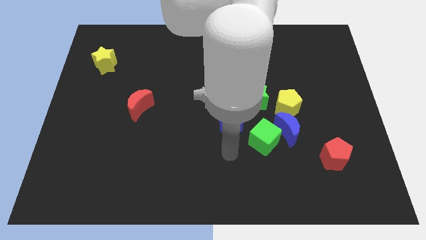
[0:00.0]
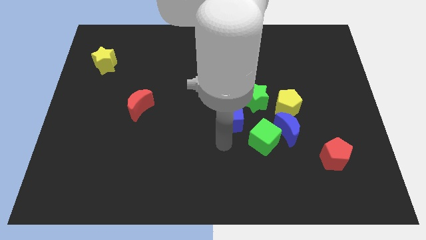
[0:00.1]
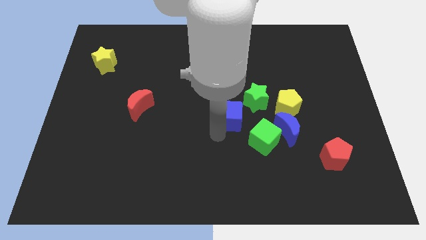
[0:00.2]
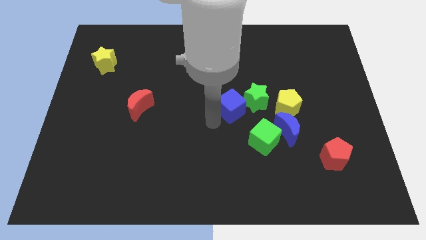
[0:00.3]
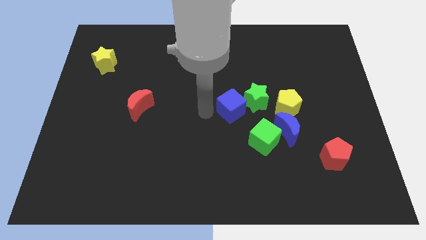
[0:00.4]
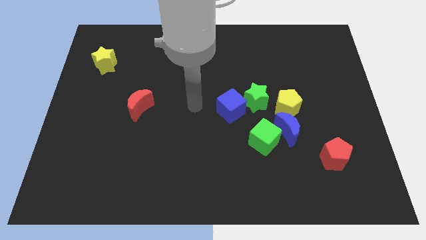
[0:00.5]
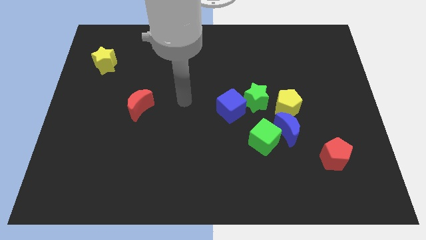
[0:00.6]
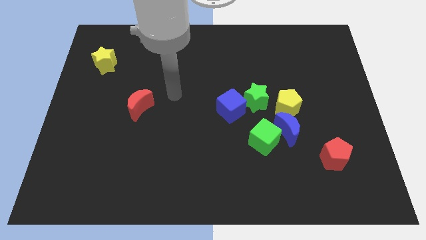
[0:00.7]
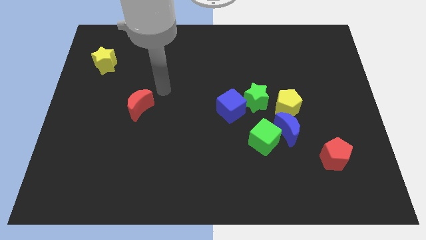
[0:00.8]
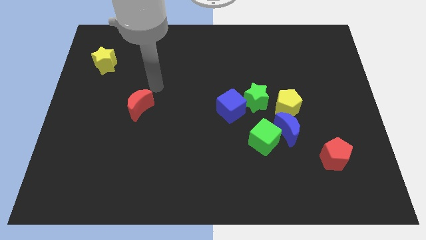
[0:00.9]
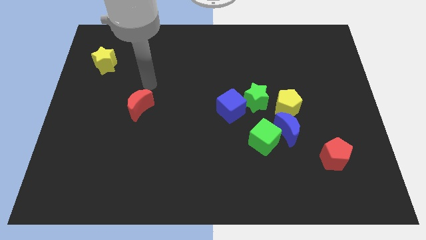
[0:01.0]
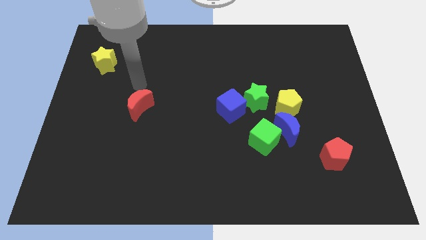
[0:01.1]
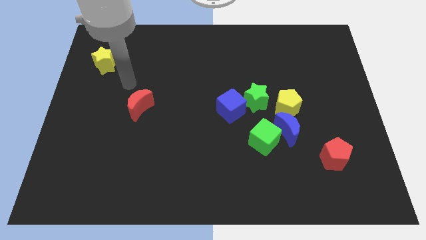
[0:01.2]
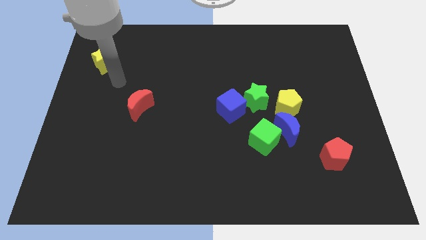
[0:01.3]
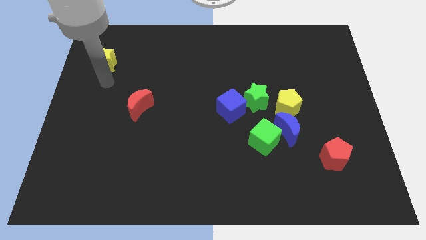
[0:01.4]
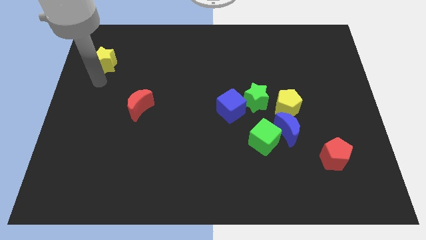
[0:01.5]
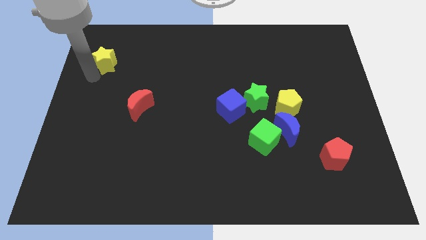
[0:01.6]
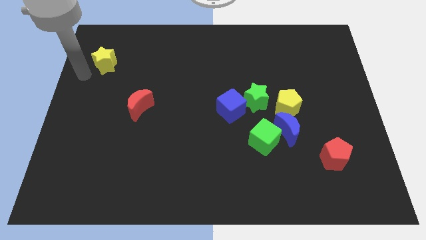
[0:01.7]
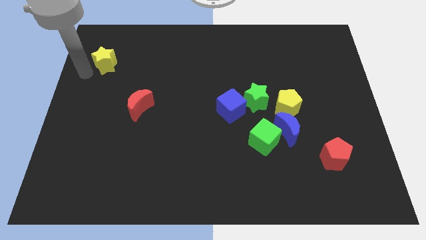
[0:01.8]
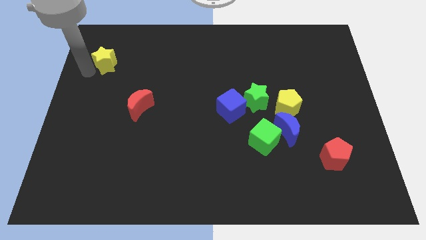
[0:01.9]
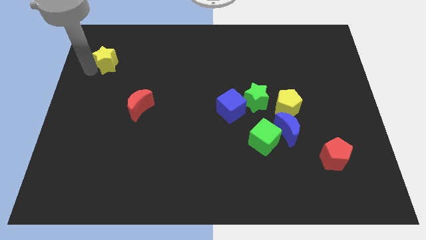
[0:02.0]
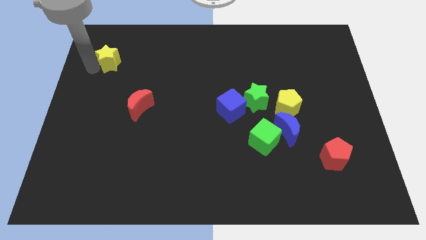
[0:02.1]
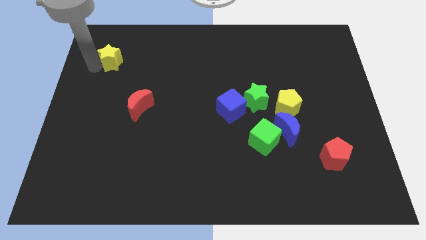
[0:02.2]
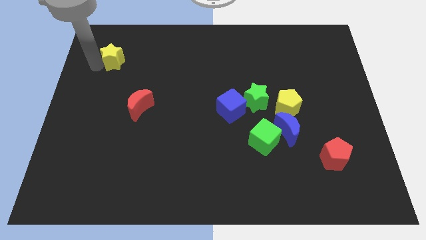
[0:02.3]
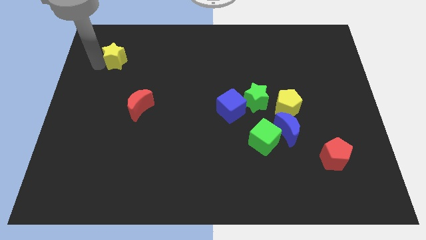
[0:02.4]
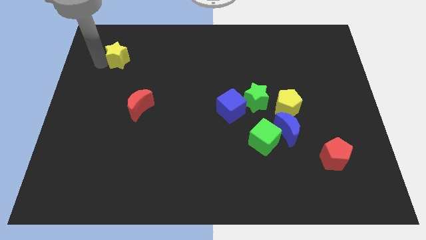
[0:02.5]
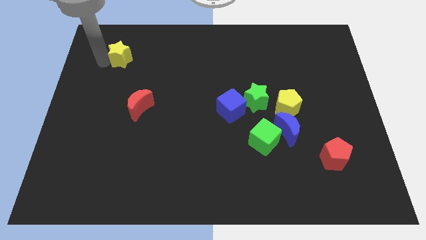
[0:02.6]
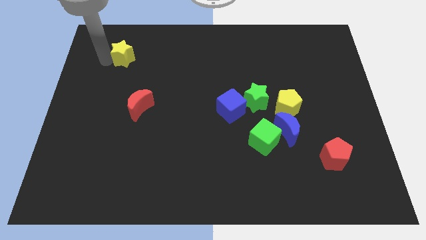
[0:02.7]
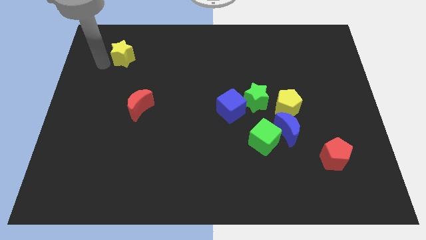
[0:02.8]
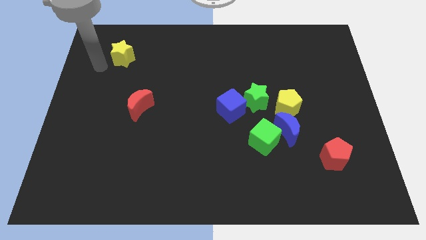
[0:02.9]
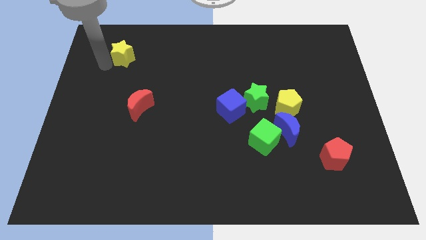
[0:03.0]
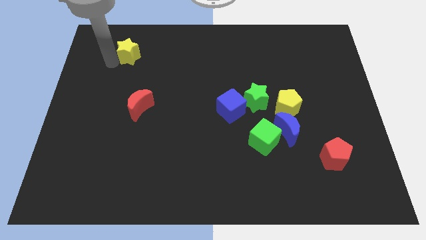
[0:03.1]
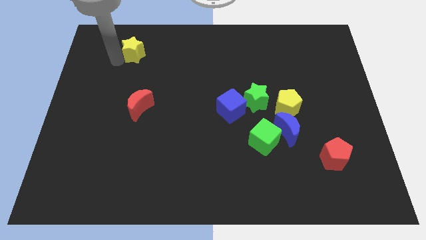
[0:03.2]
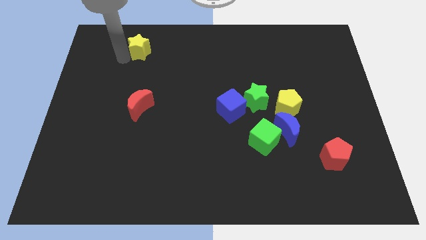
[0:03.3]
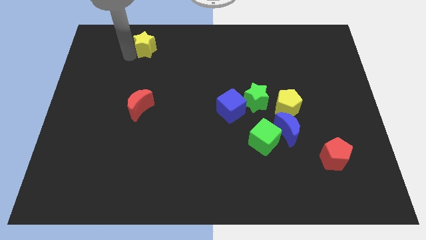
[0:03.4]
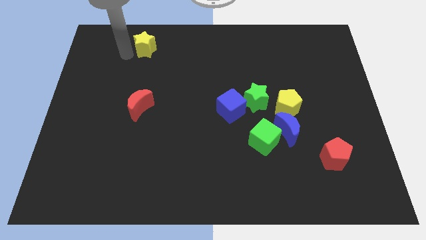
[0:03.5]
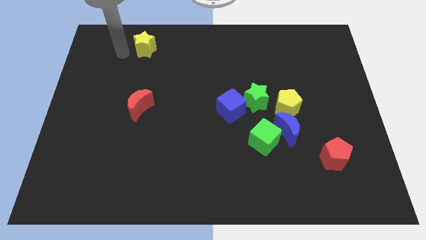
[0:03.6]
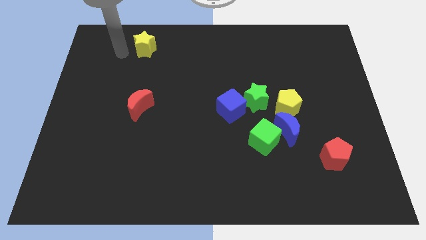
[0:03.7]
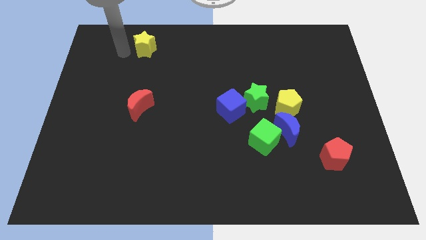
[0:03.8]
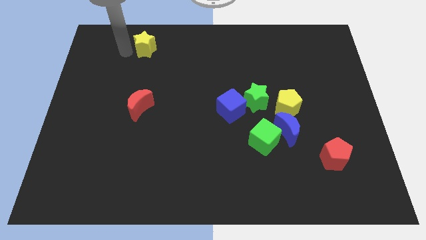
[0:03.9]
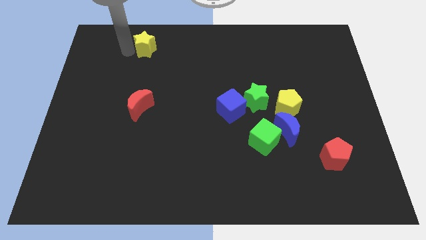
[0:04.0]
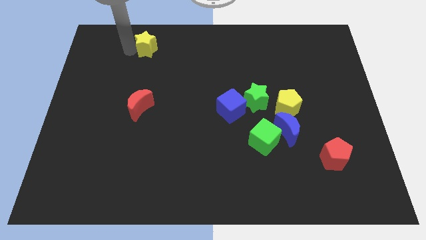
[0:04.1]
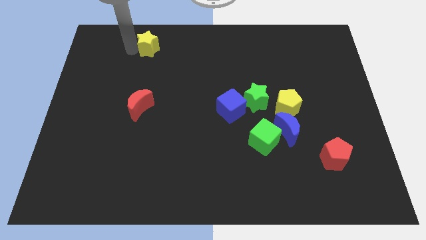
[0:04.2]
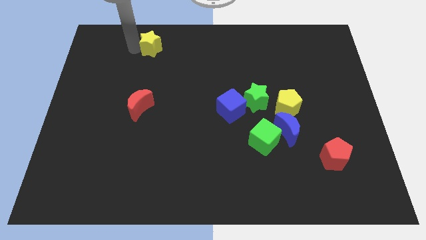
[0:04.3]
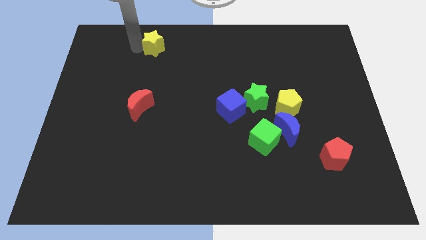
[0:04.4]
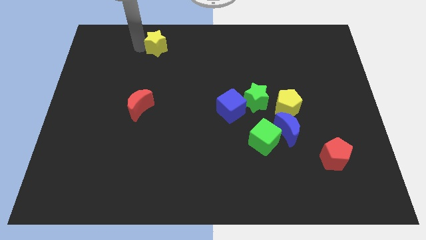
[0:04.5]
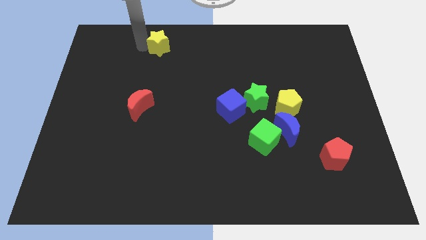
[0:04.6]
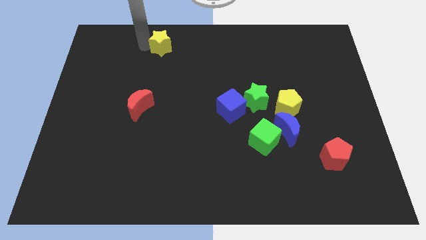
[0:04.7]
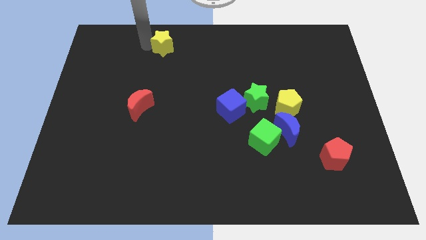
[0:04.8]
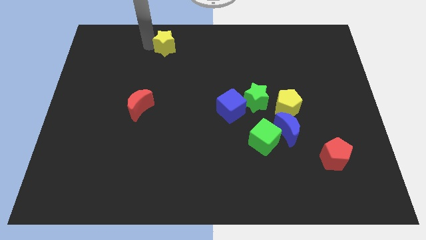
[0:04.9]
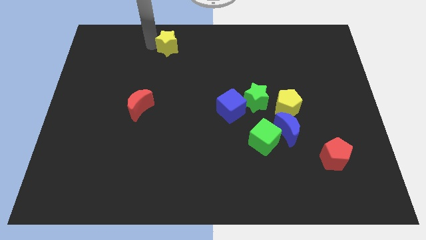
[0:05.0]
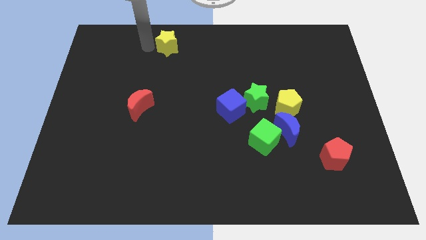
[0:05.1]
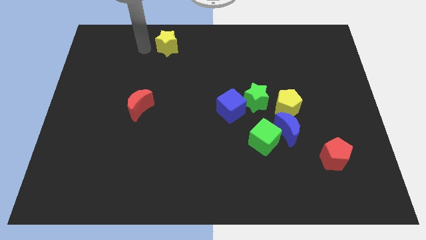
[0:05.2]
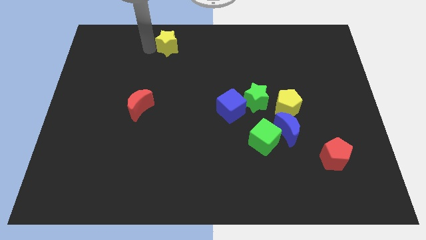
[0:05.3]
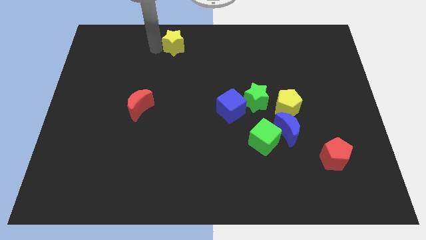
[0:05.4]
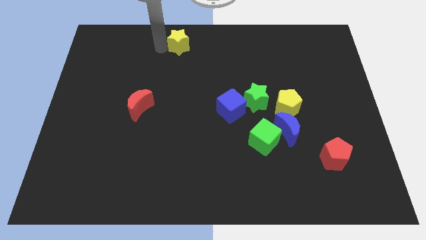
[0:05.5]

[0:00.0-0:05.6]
put the yellow star to the towards your base

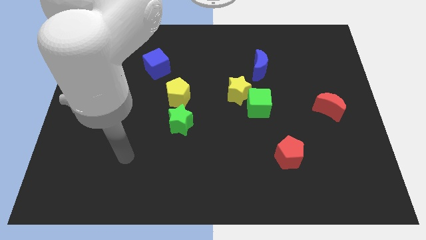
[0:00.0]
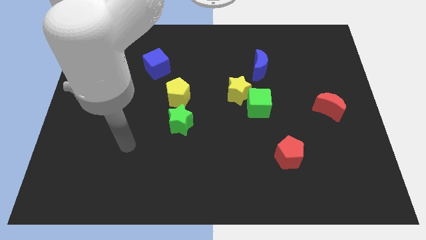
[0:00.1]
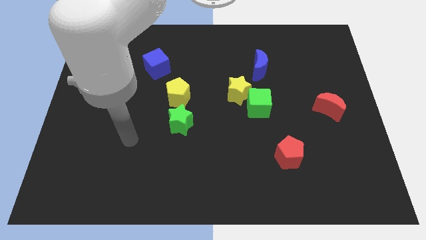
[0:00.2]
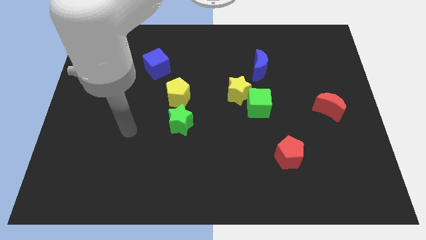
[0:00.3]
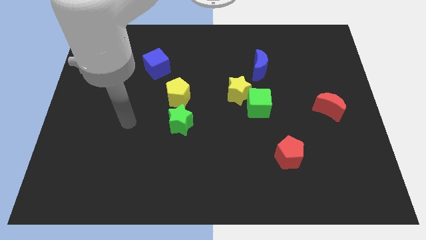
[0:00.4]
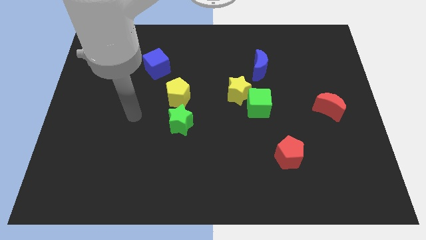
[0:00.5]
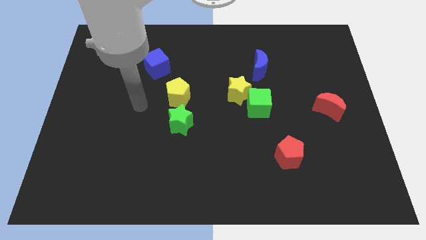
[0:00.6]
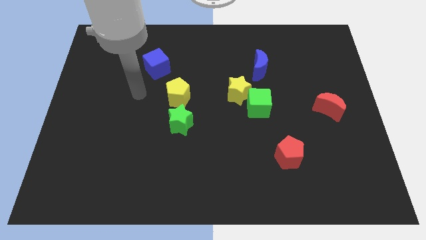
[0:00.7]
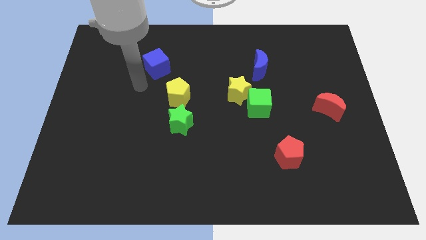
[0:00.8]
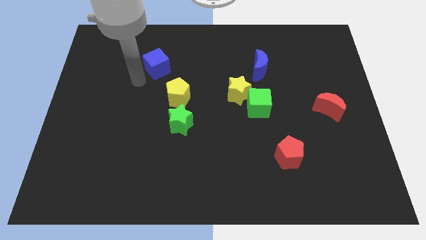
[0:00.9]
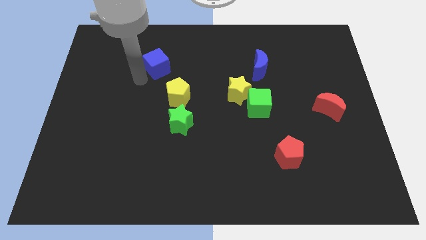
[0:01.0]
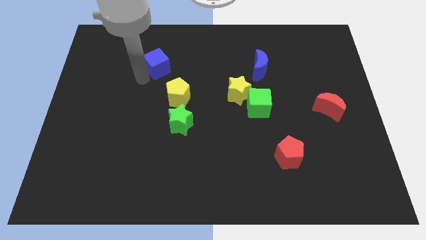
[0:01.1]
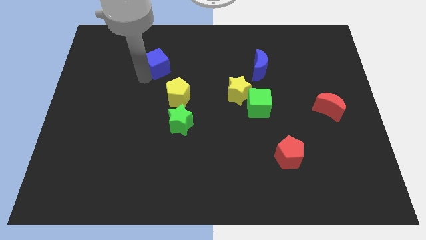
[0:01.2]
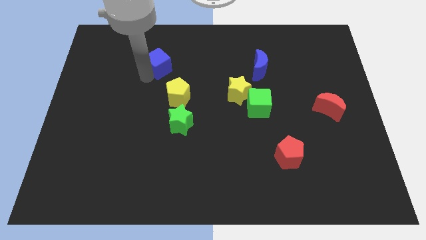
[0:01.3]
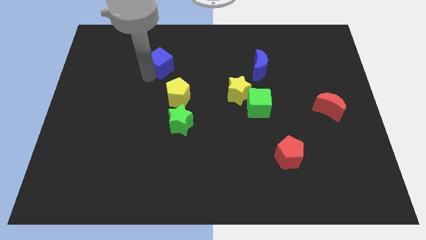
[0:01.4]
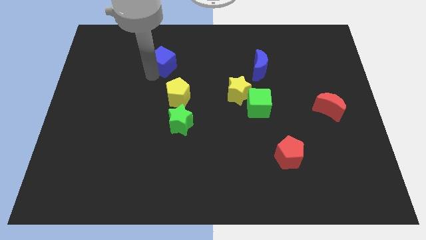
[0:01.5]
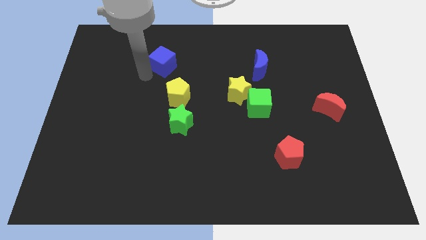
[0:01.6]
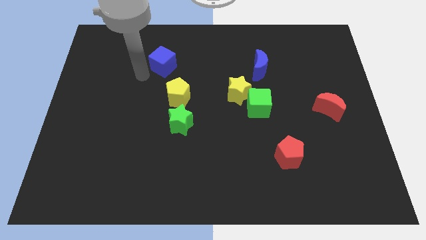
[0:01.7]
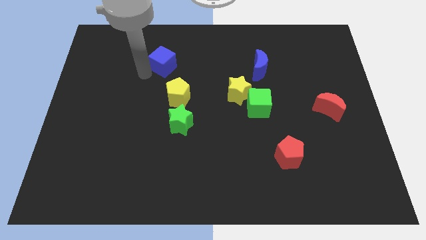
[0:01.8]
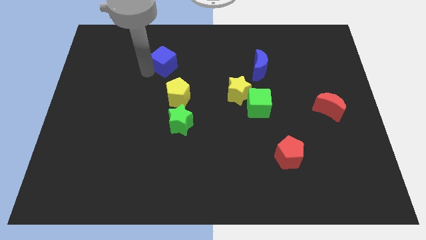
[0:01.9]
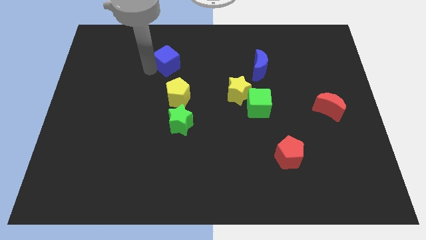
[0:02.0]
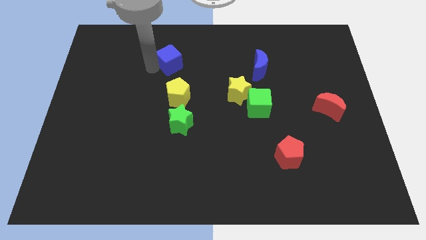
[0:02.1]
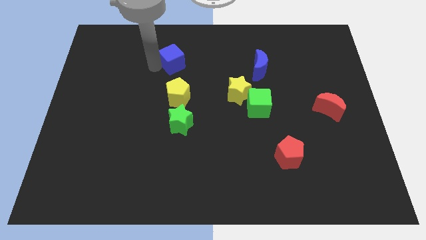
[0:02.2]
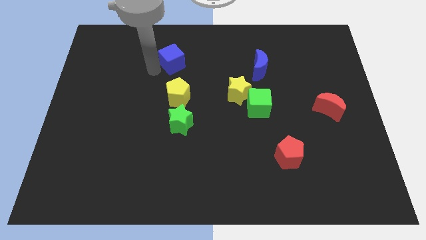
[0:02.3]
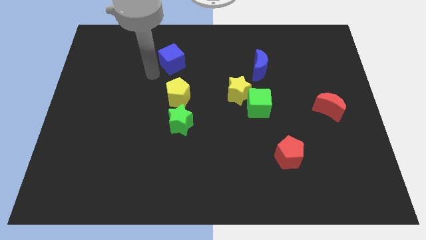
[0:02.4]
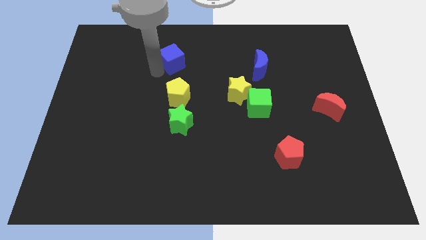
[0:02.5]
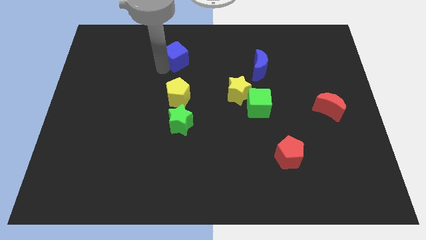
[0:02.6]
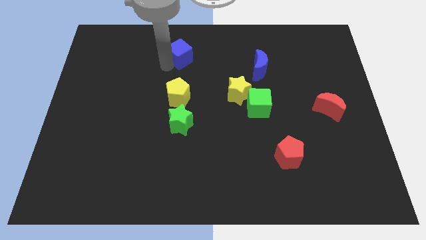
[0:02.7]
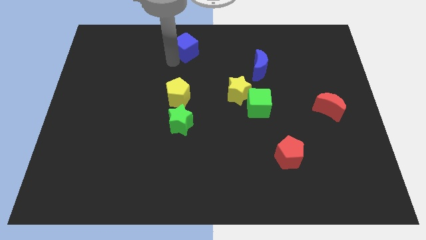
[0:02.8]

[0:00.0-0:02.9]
push the blue cube to the top side
